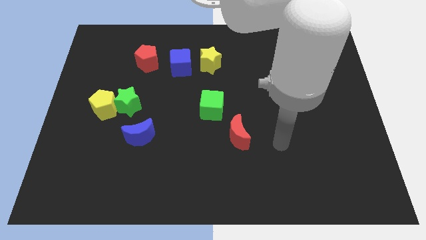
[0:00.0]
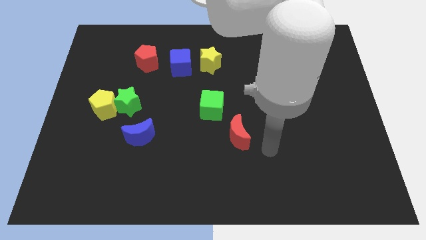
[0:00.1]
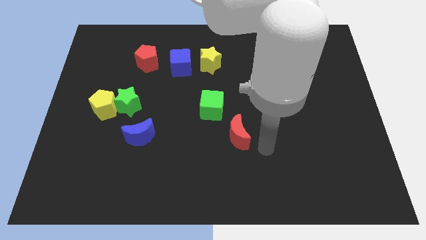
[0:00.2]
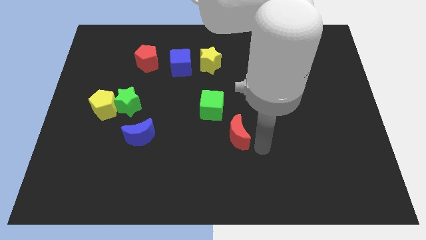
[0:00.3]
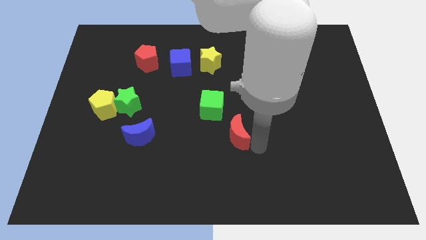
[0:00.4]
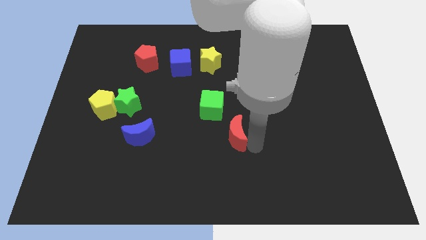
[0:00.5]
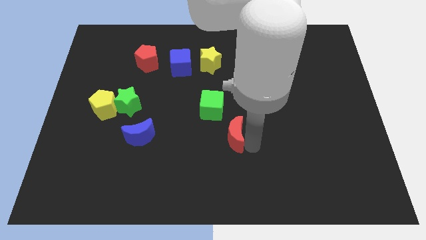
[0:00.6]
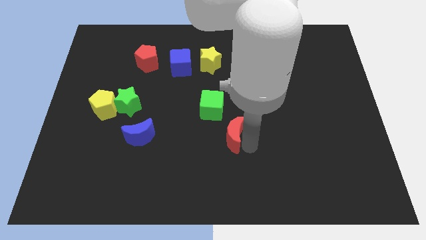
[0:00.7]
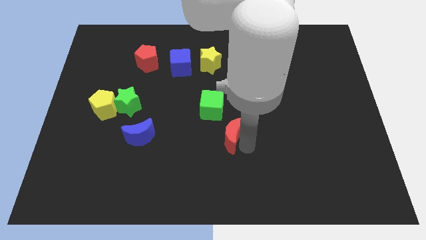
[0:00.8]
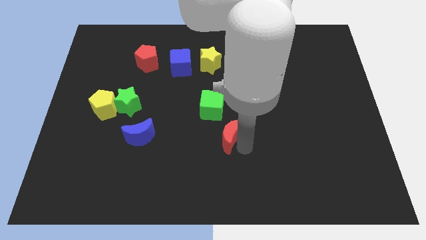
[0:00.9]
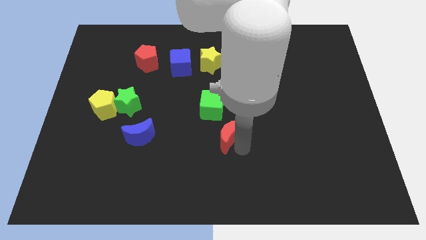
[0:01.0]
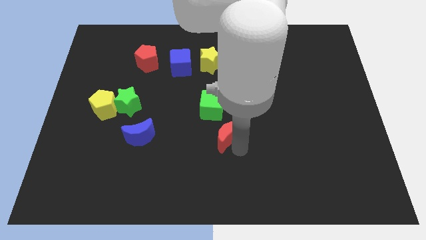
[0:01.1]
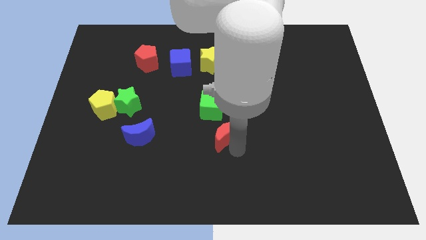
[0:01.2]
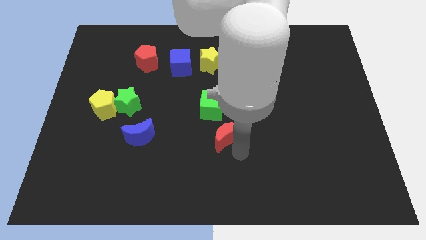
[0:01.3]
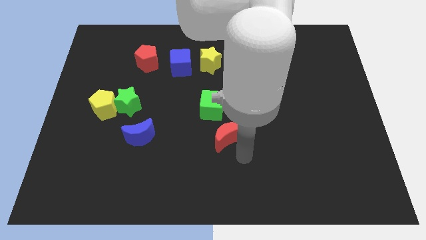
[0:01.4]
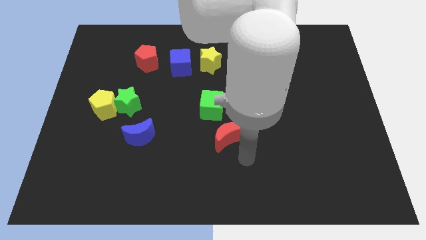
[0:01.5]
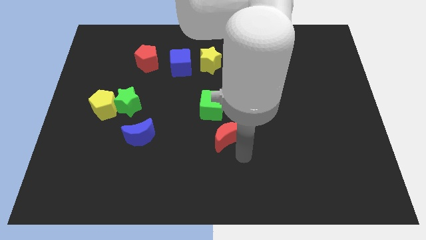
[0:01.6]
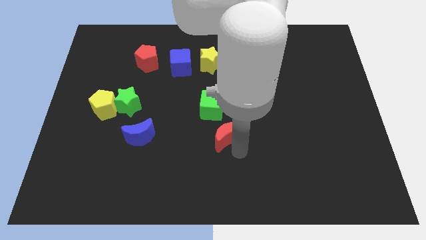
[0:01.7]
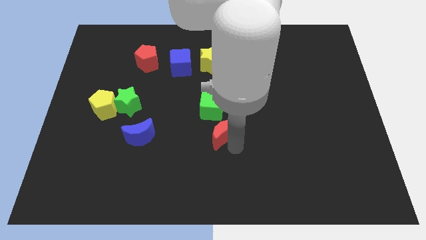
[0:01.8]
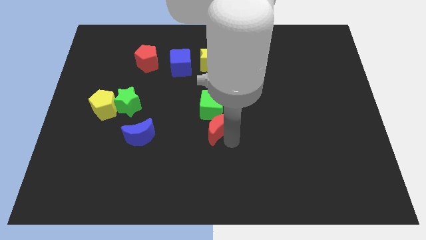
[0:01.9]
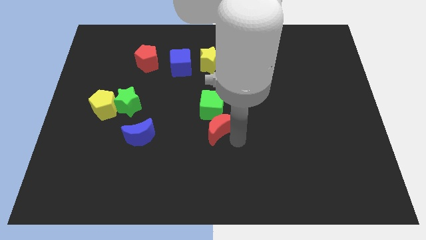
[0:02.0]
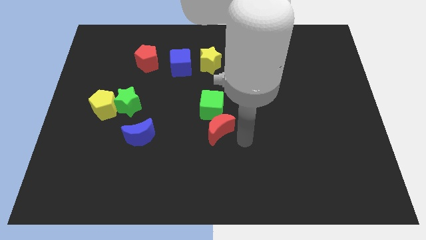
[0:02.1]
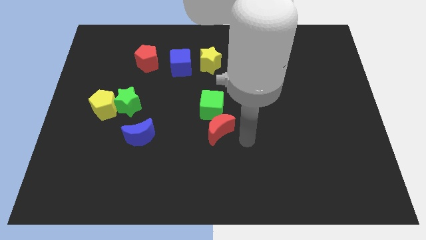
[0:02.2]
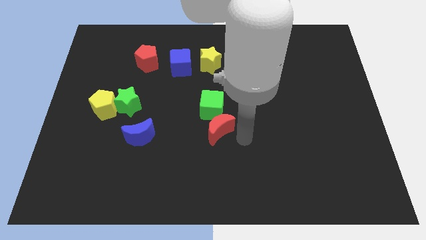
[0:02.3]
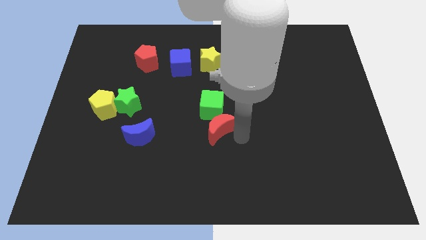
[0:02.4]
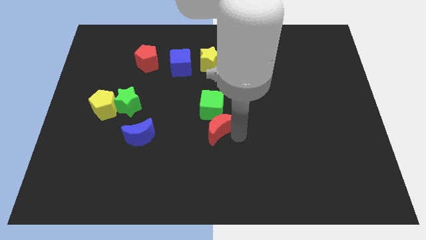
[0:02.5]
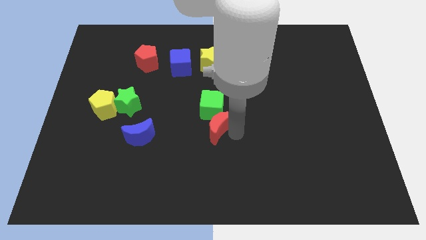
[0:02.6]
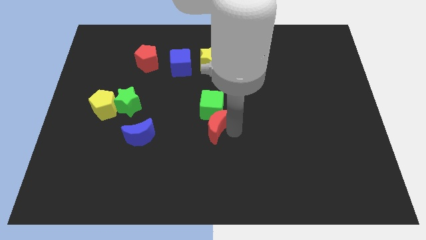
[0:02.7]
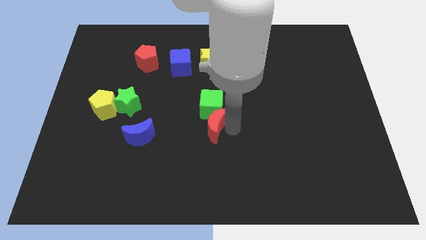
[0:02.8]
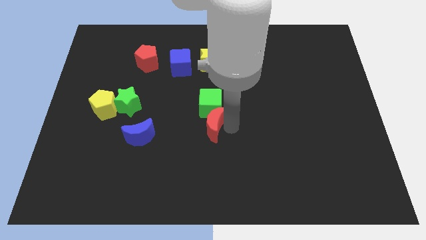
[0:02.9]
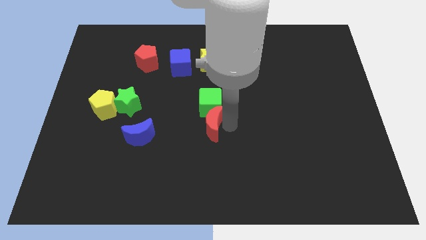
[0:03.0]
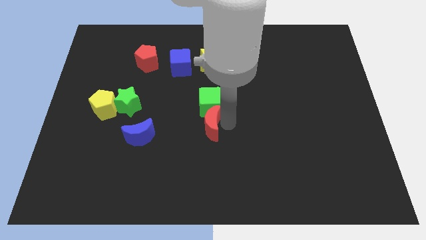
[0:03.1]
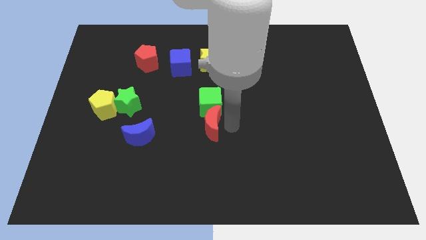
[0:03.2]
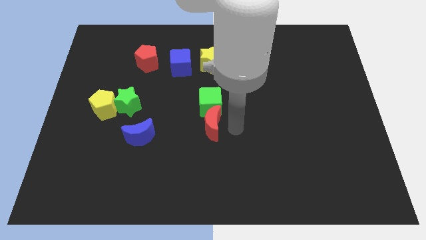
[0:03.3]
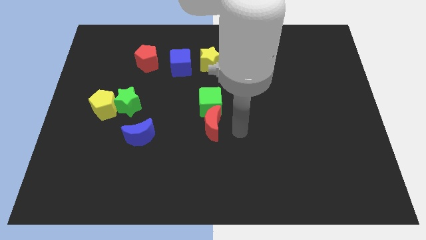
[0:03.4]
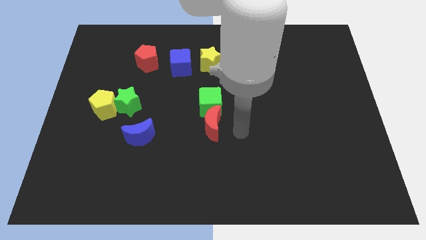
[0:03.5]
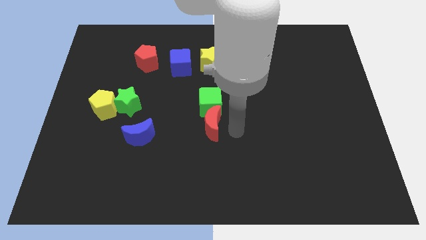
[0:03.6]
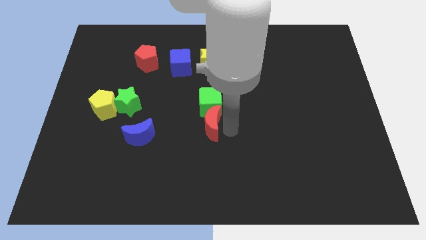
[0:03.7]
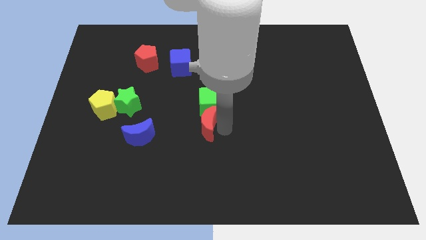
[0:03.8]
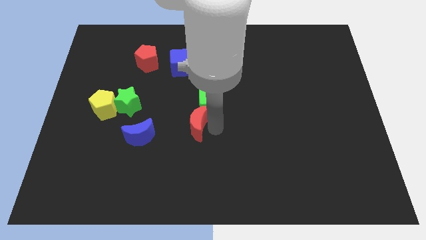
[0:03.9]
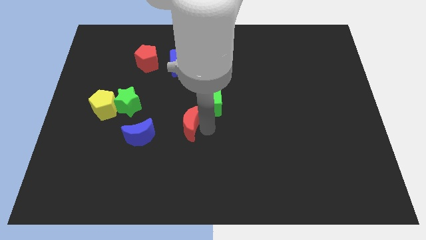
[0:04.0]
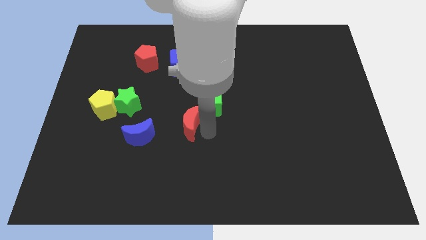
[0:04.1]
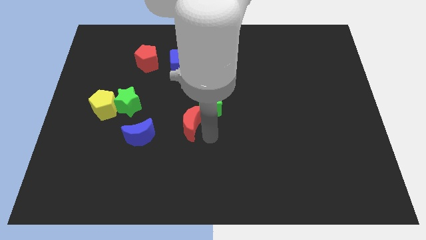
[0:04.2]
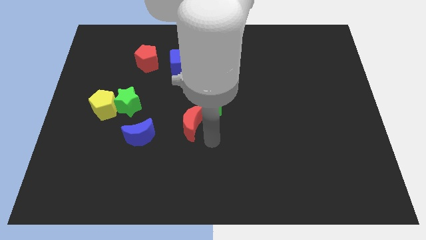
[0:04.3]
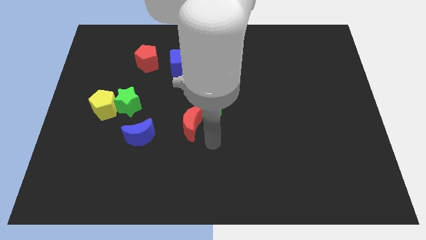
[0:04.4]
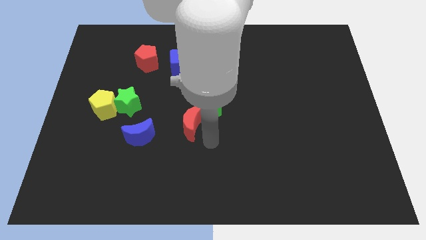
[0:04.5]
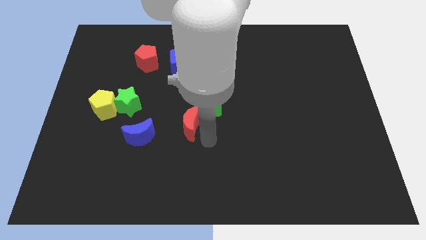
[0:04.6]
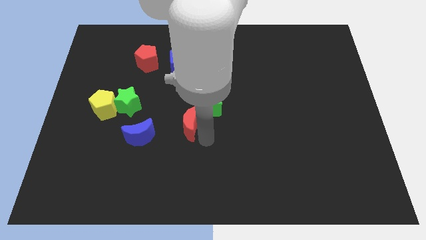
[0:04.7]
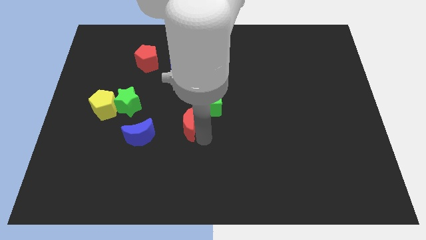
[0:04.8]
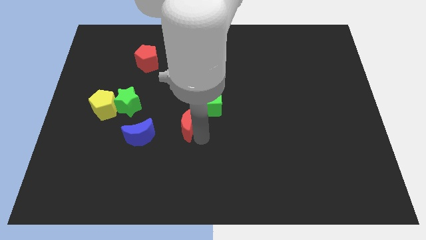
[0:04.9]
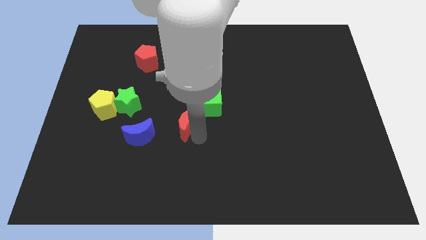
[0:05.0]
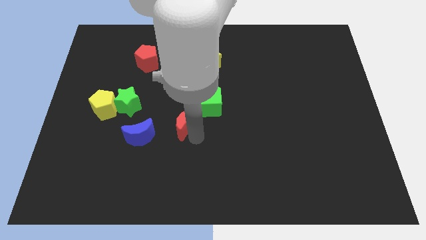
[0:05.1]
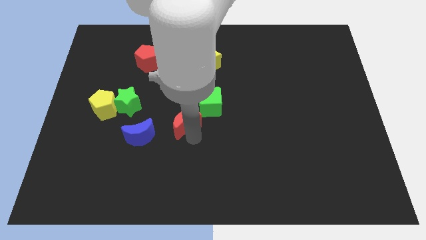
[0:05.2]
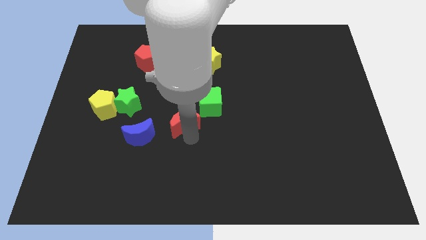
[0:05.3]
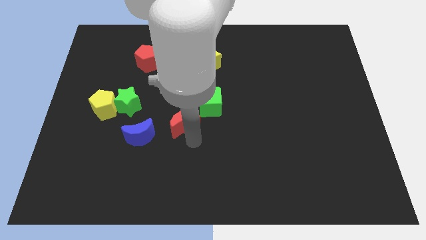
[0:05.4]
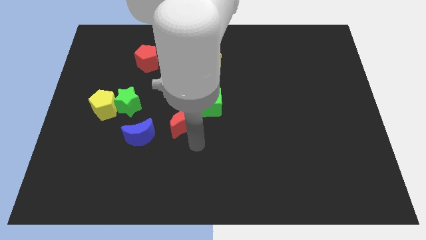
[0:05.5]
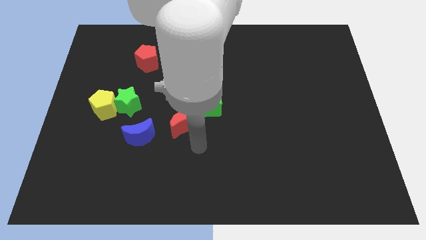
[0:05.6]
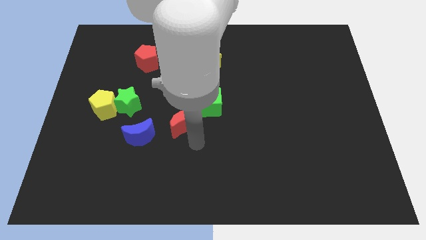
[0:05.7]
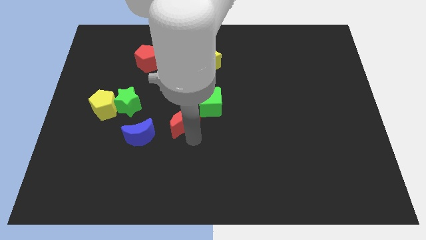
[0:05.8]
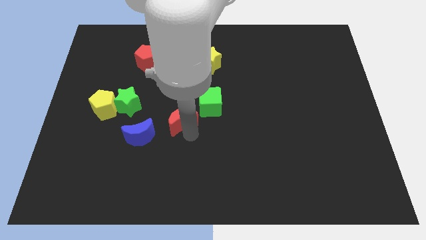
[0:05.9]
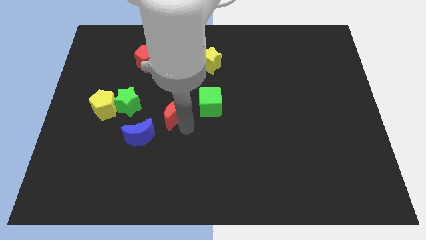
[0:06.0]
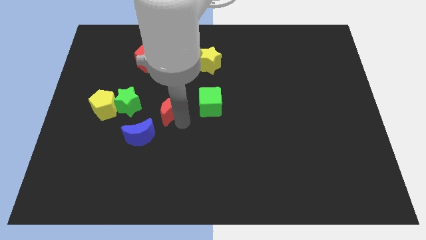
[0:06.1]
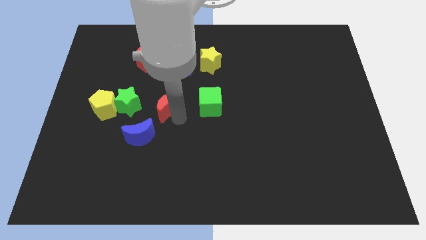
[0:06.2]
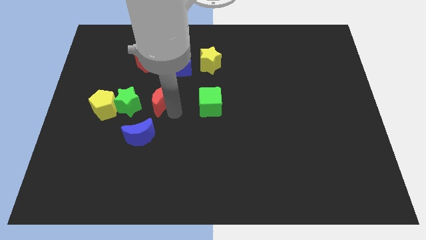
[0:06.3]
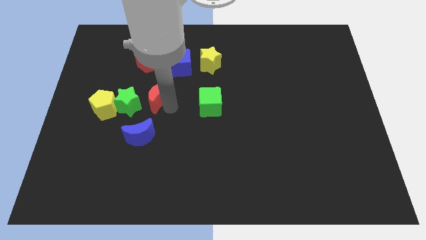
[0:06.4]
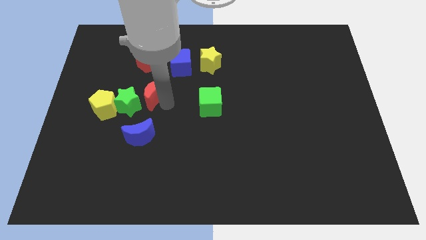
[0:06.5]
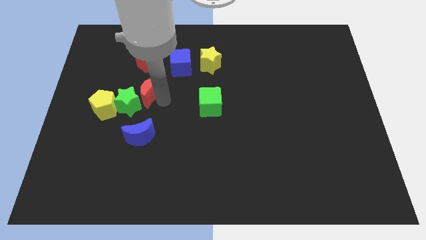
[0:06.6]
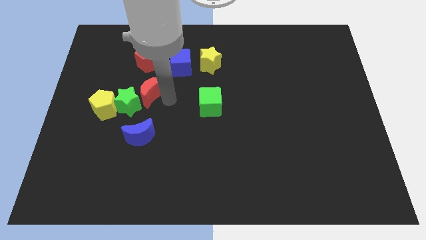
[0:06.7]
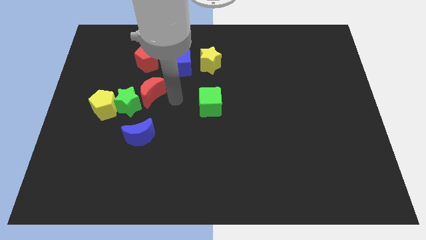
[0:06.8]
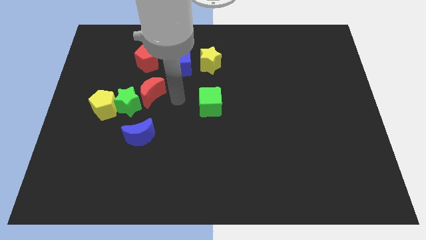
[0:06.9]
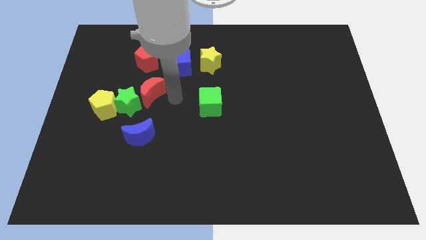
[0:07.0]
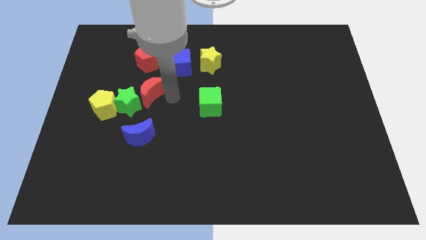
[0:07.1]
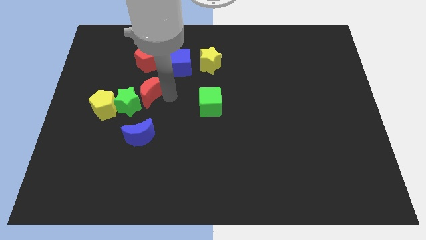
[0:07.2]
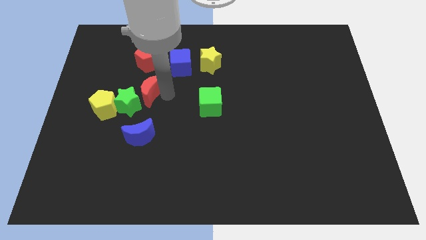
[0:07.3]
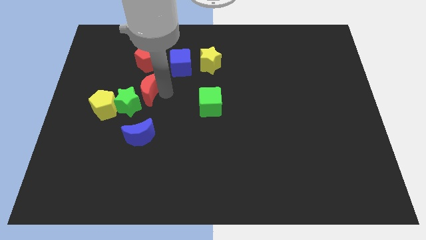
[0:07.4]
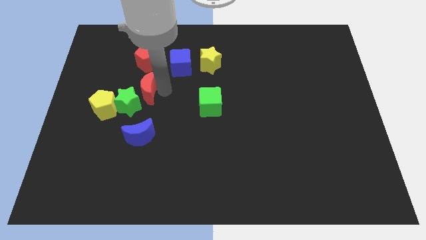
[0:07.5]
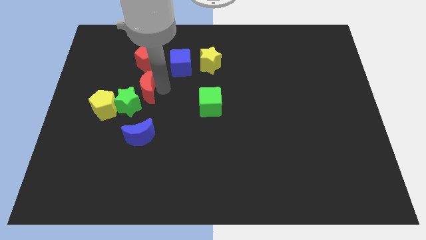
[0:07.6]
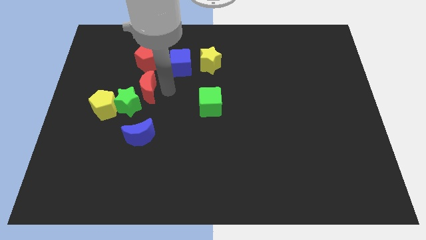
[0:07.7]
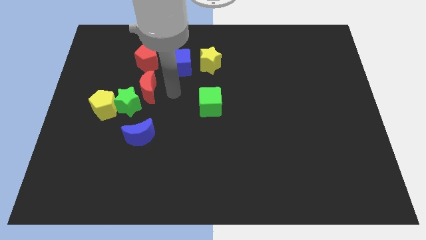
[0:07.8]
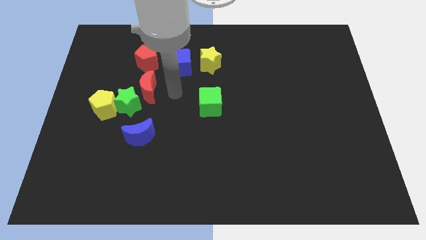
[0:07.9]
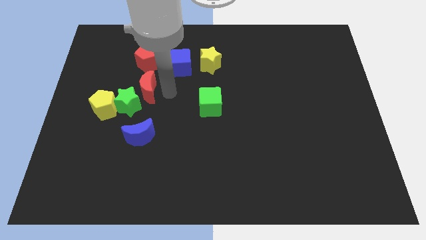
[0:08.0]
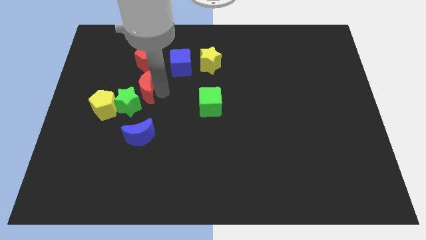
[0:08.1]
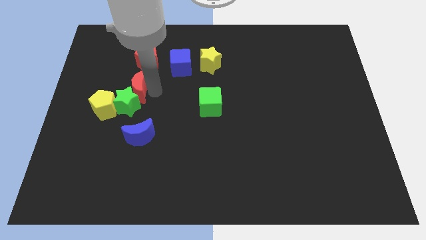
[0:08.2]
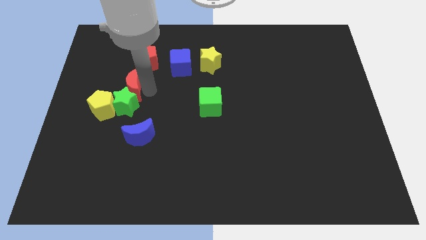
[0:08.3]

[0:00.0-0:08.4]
slide the red moon to the top left of the green star
